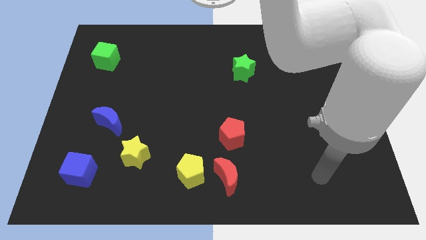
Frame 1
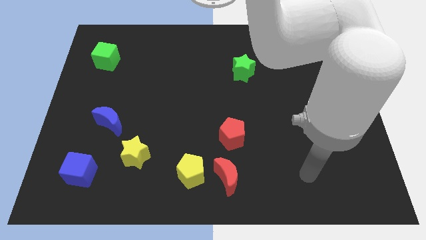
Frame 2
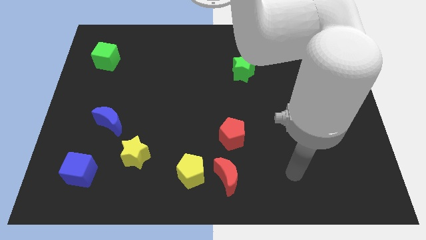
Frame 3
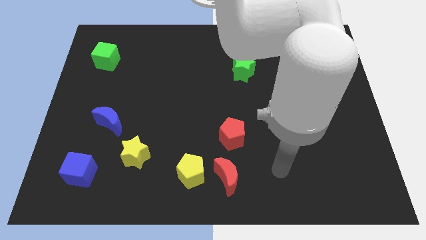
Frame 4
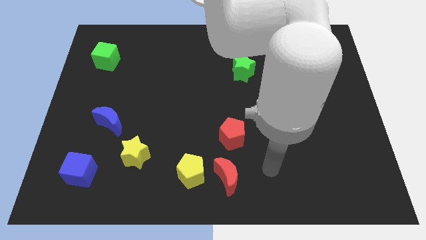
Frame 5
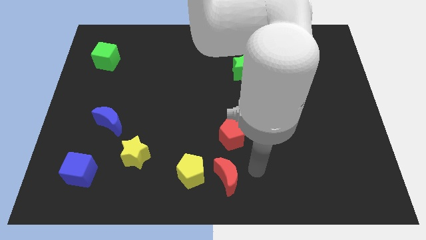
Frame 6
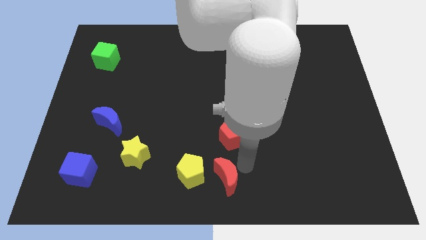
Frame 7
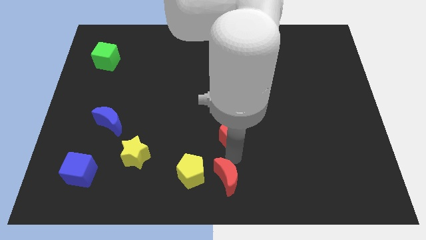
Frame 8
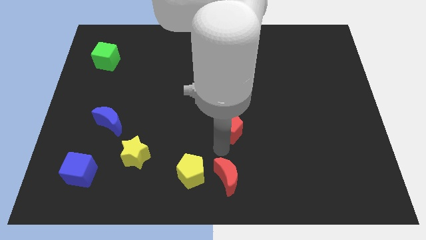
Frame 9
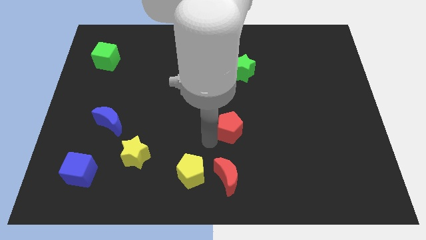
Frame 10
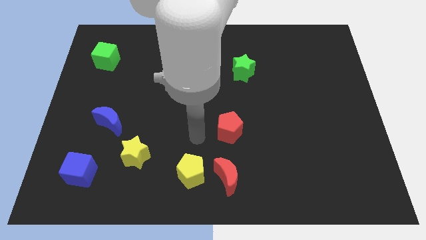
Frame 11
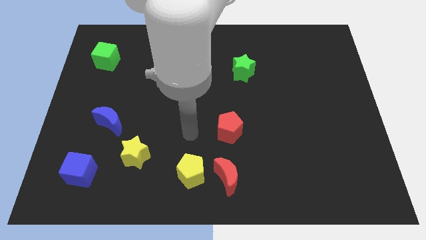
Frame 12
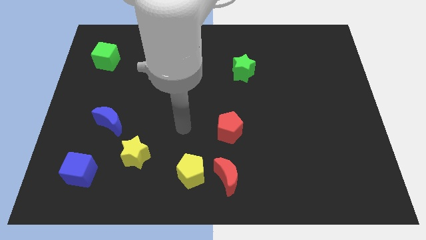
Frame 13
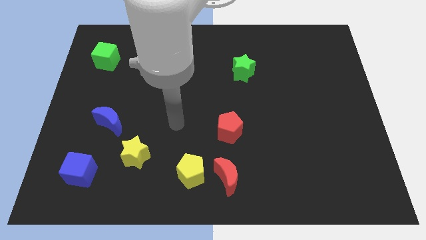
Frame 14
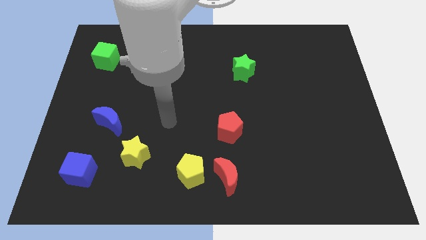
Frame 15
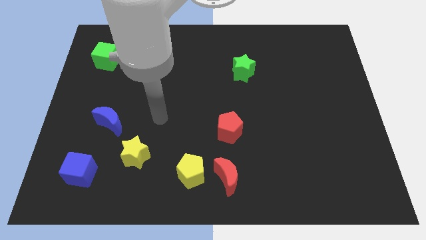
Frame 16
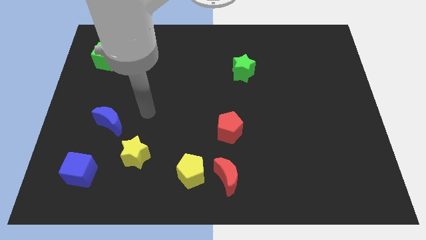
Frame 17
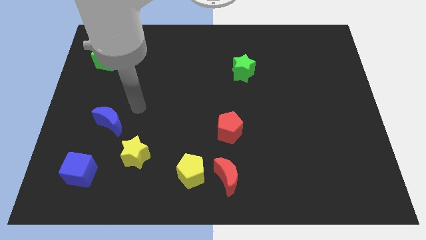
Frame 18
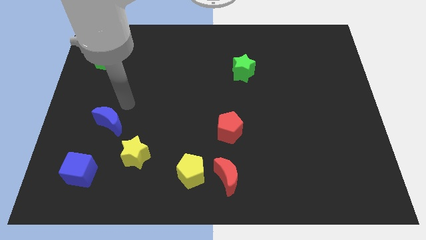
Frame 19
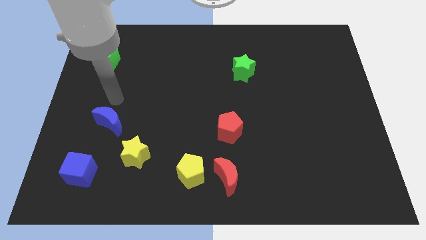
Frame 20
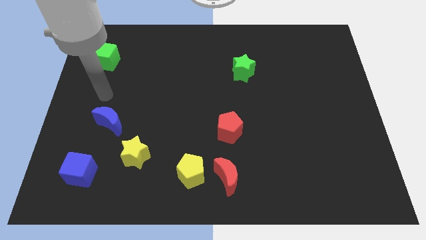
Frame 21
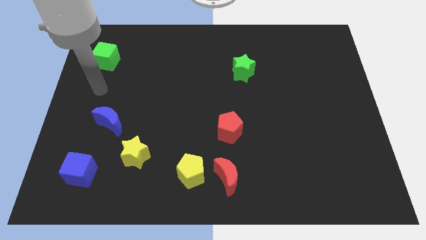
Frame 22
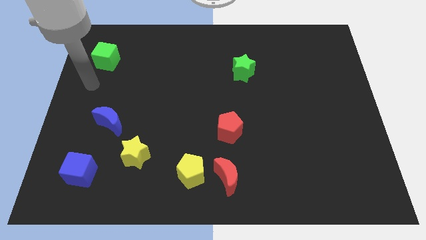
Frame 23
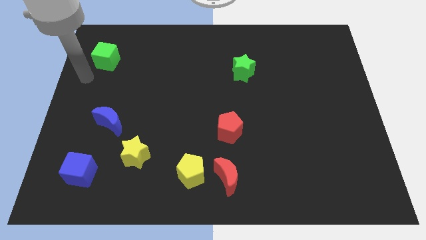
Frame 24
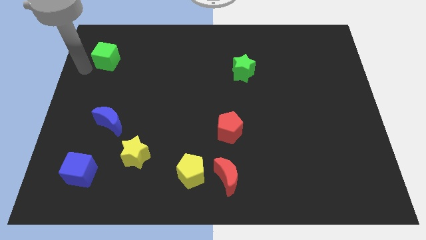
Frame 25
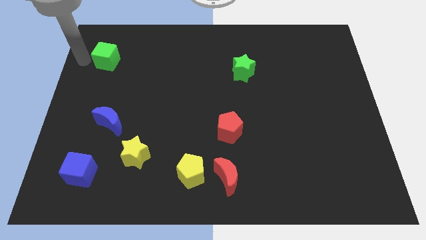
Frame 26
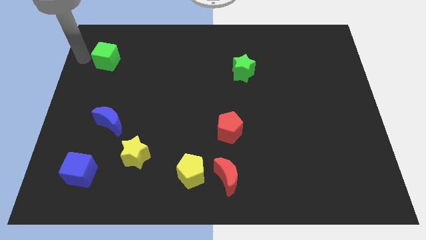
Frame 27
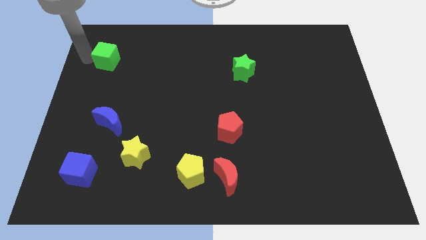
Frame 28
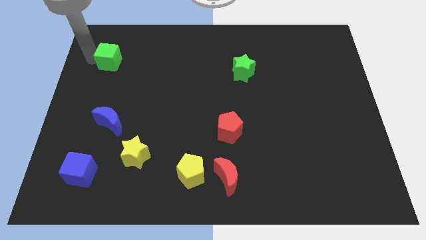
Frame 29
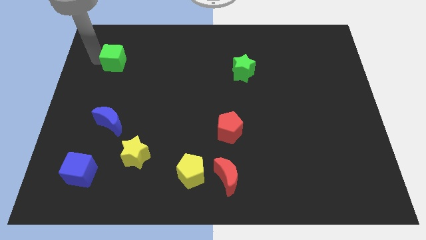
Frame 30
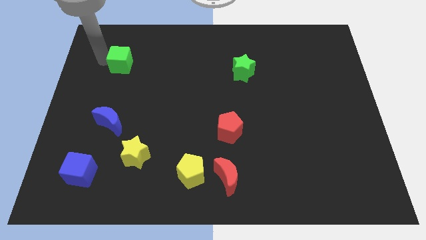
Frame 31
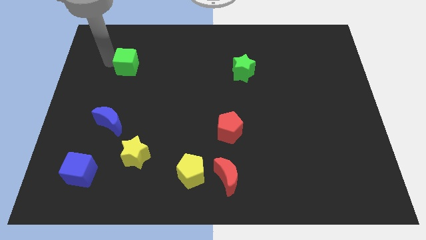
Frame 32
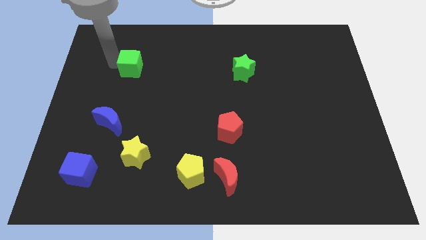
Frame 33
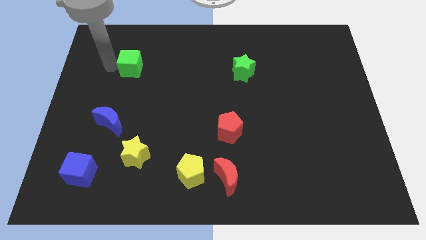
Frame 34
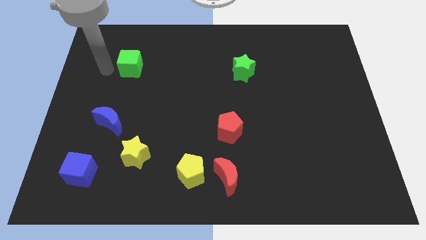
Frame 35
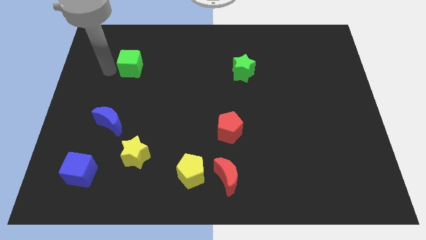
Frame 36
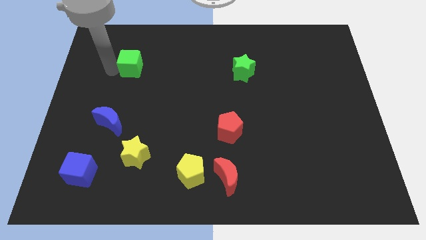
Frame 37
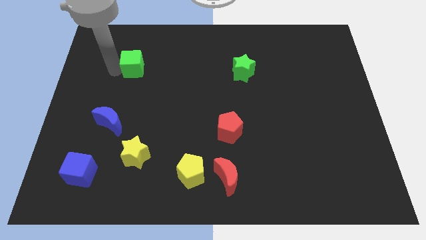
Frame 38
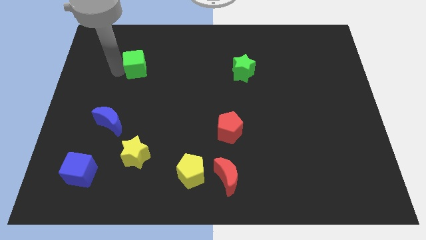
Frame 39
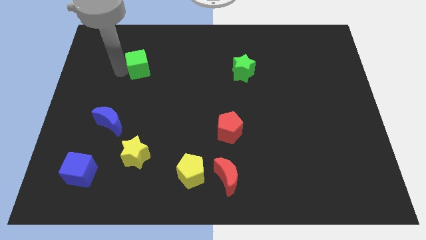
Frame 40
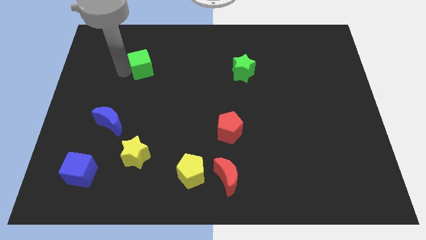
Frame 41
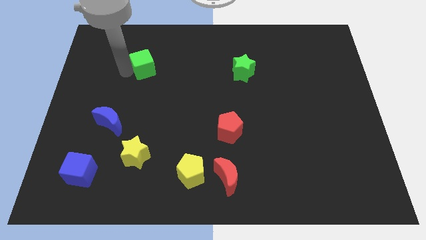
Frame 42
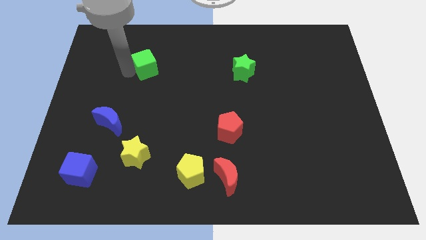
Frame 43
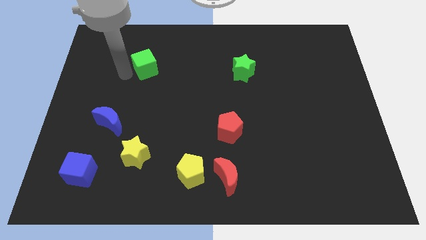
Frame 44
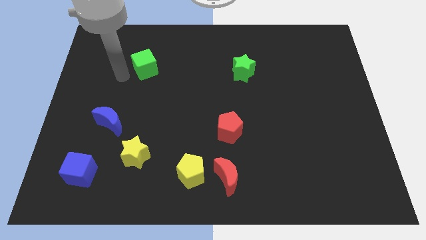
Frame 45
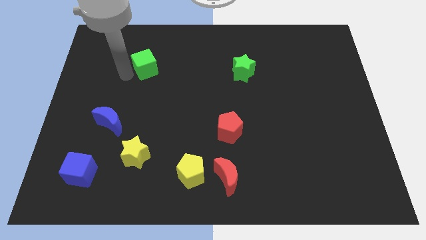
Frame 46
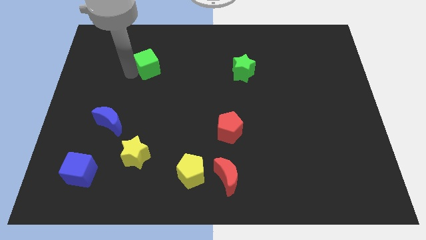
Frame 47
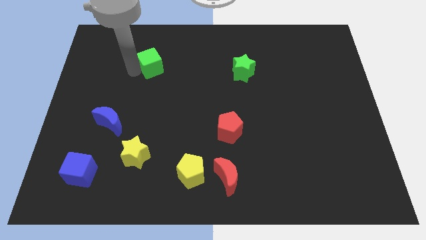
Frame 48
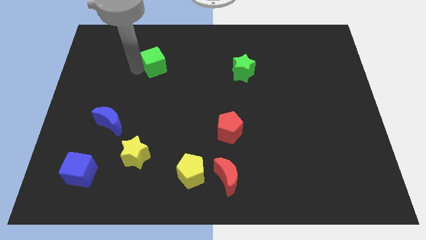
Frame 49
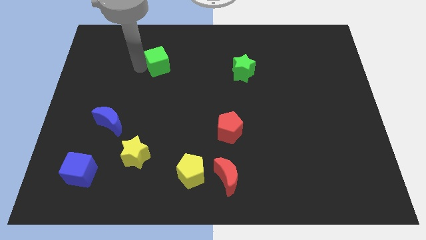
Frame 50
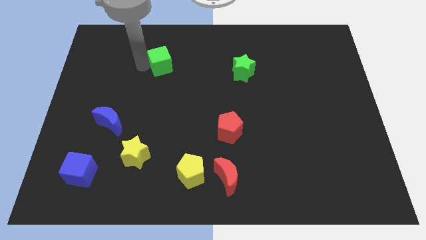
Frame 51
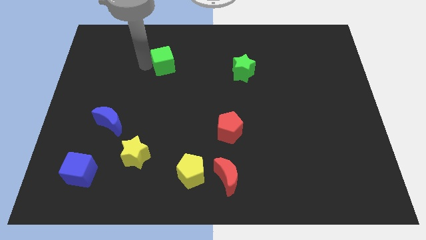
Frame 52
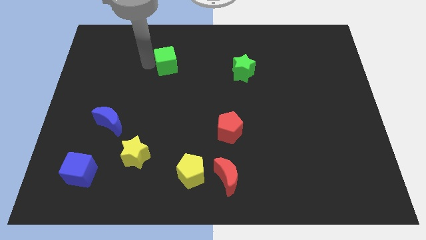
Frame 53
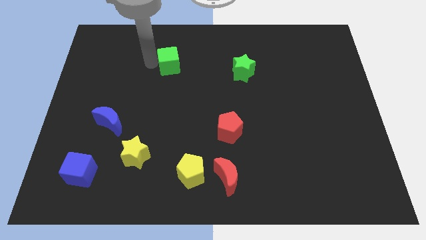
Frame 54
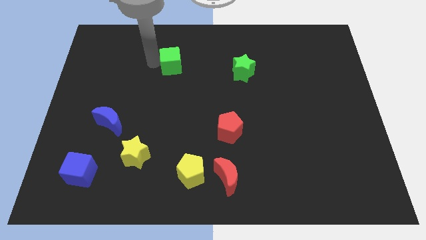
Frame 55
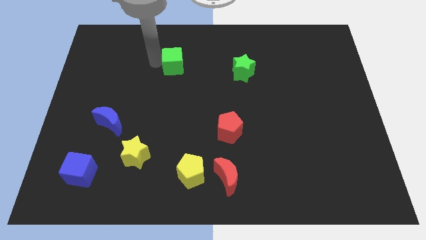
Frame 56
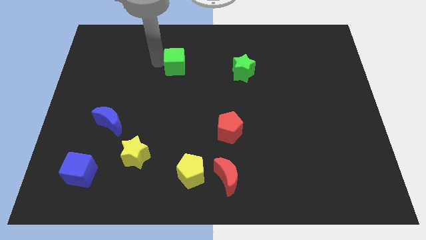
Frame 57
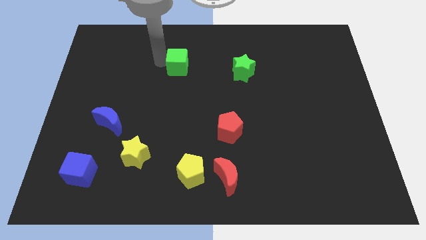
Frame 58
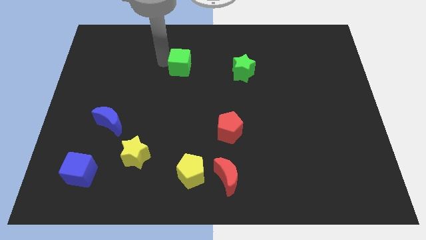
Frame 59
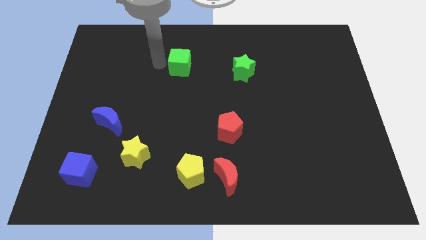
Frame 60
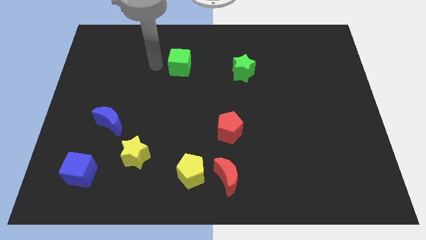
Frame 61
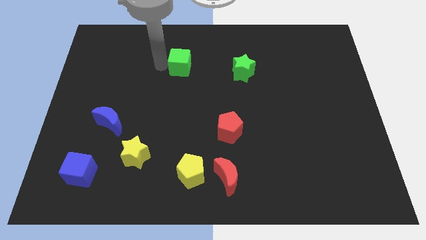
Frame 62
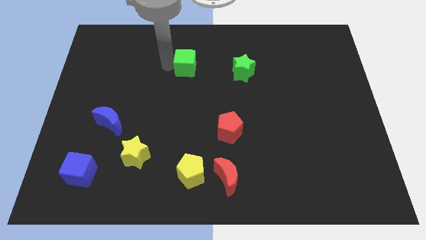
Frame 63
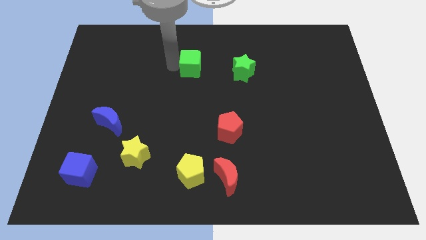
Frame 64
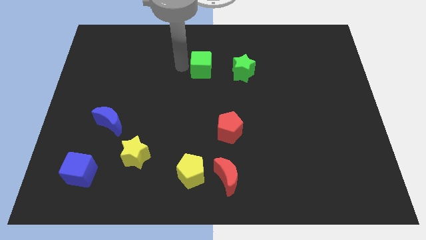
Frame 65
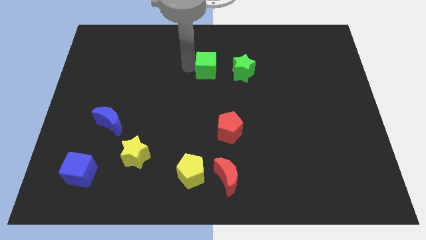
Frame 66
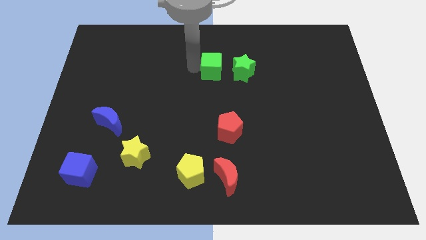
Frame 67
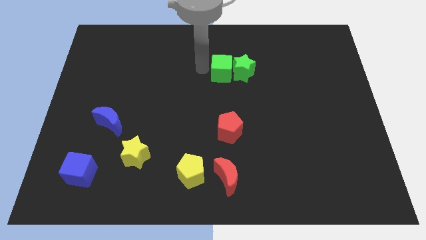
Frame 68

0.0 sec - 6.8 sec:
move the green cube towards the green star
